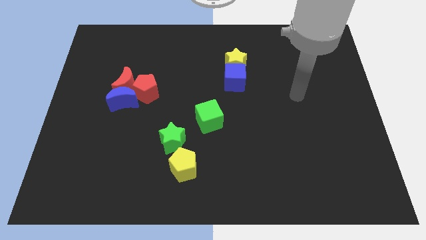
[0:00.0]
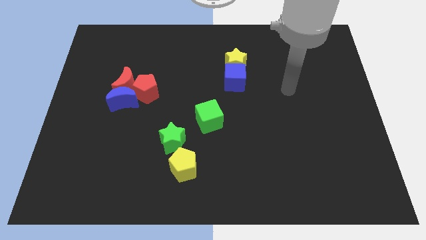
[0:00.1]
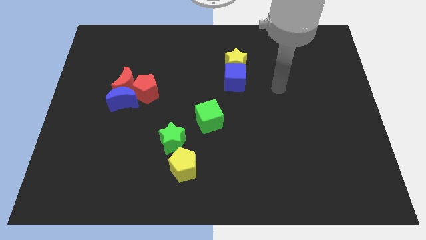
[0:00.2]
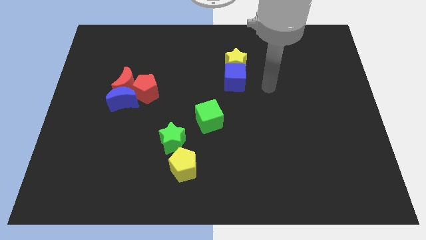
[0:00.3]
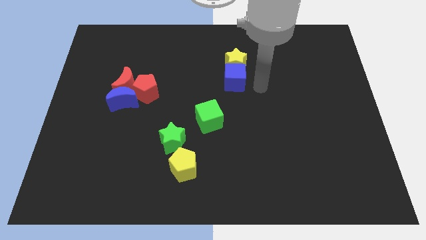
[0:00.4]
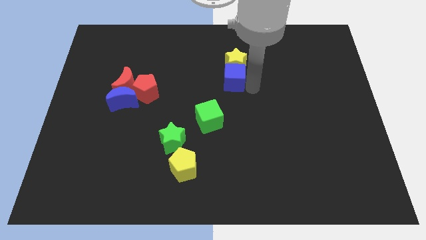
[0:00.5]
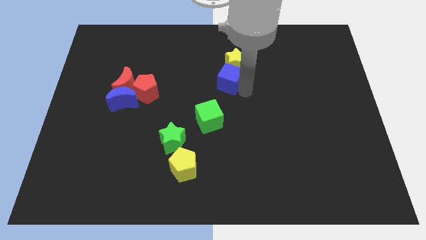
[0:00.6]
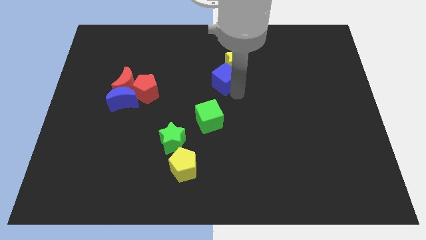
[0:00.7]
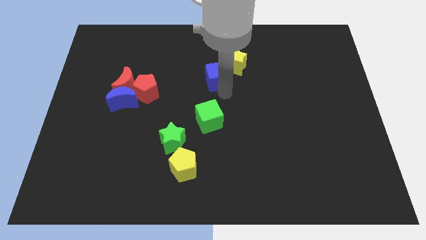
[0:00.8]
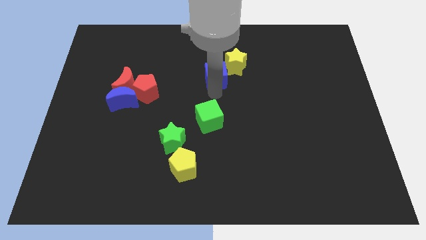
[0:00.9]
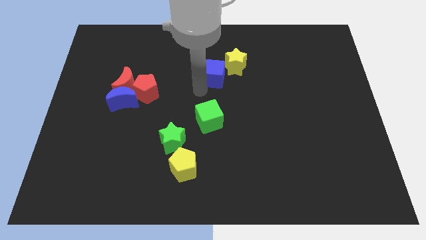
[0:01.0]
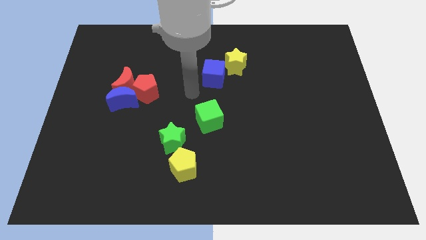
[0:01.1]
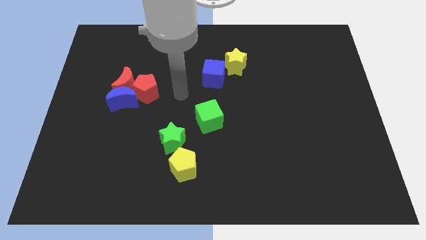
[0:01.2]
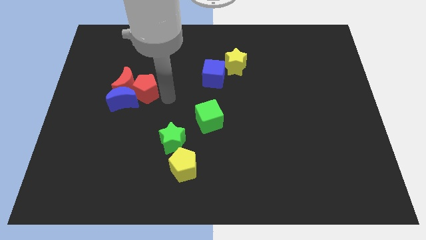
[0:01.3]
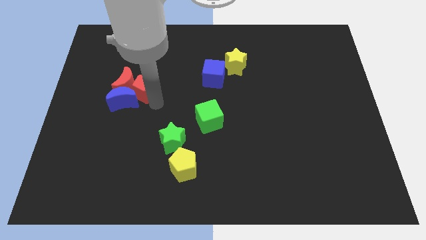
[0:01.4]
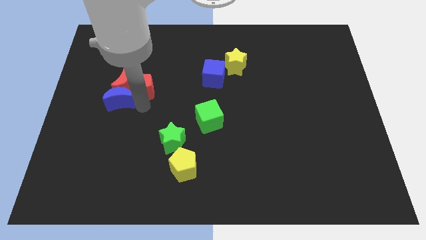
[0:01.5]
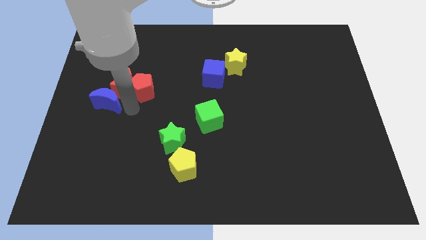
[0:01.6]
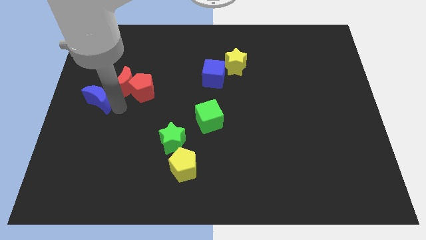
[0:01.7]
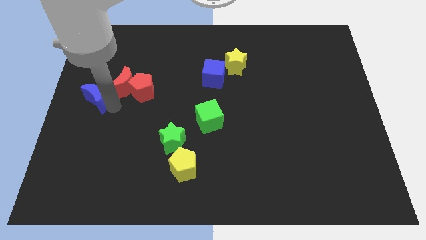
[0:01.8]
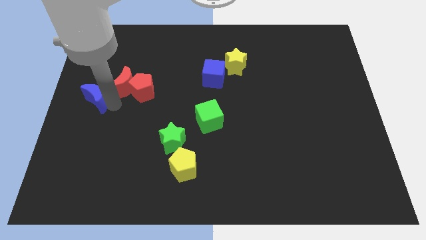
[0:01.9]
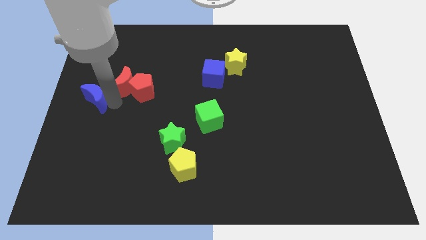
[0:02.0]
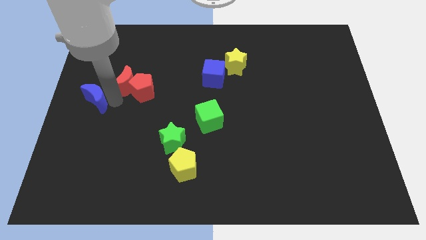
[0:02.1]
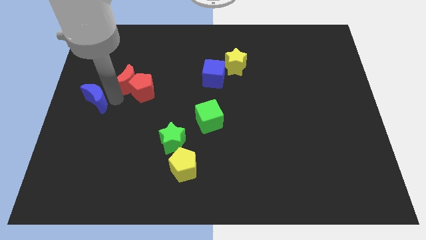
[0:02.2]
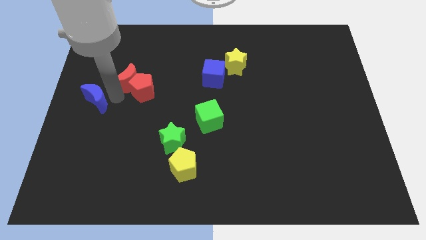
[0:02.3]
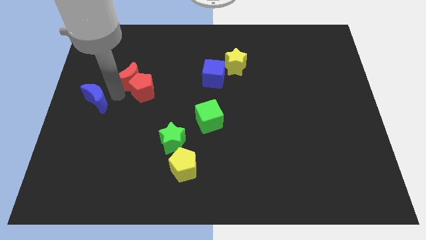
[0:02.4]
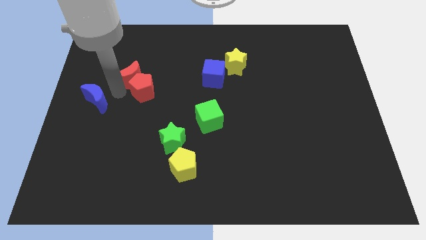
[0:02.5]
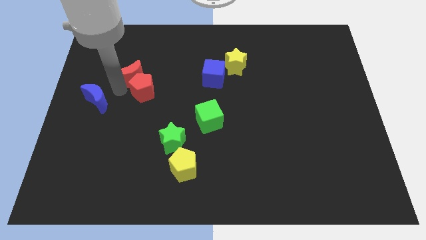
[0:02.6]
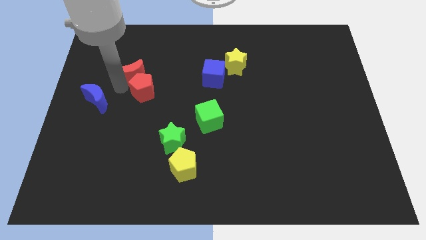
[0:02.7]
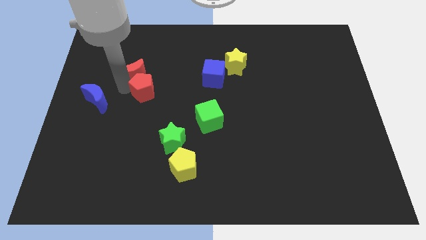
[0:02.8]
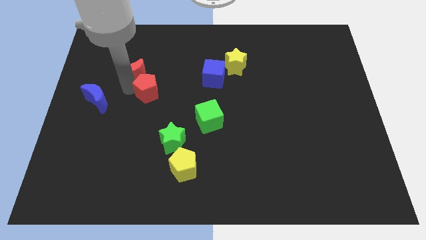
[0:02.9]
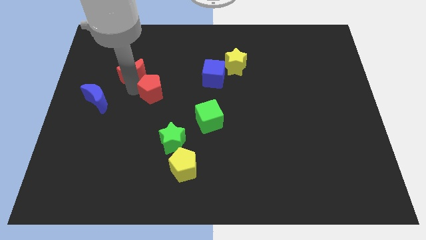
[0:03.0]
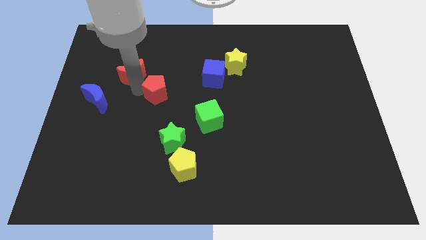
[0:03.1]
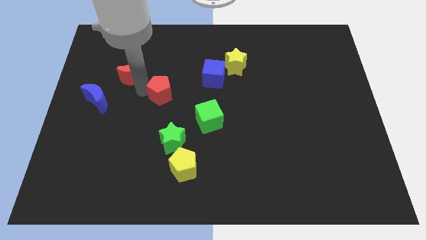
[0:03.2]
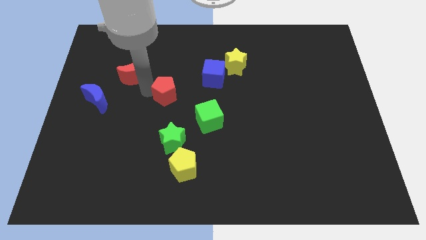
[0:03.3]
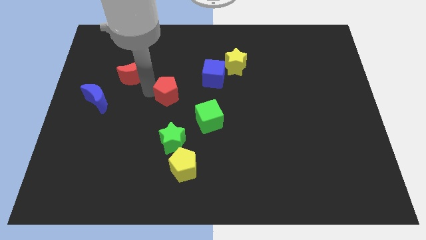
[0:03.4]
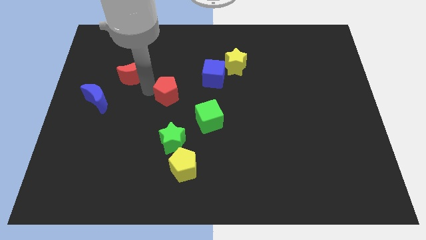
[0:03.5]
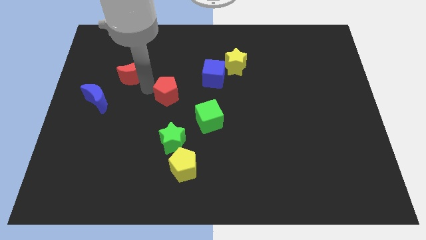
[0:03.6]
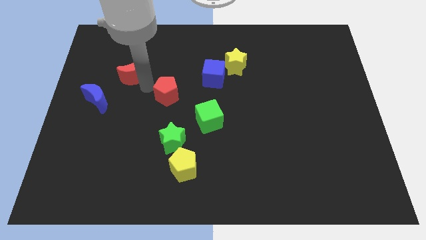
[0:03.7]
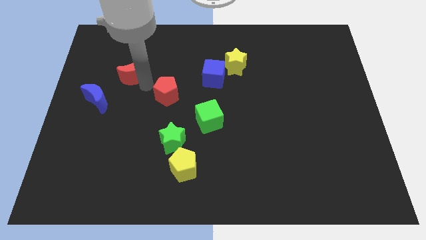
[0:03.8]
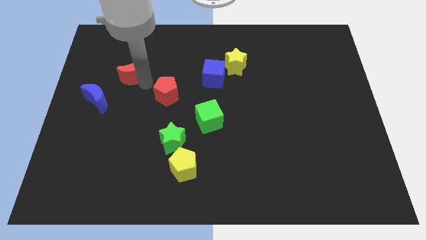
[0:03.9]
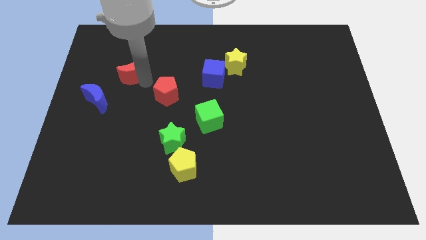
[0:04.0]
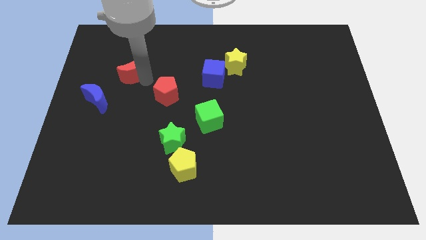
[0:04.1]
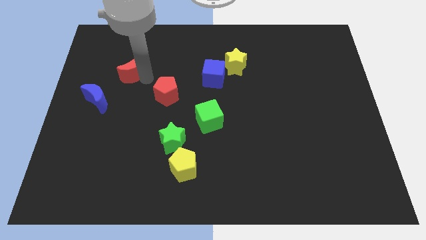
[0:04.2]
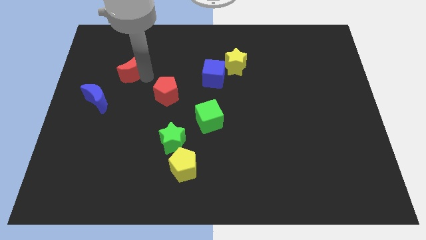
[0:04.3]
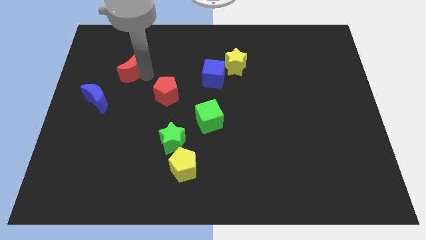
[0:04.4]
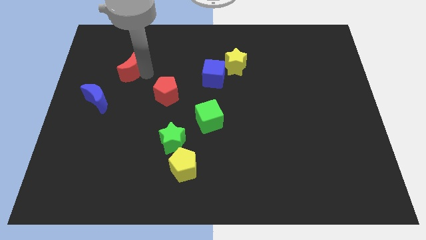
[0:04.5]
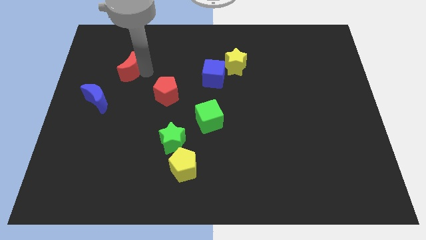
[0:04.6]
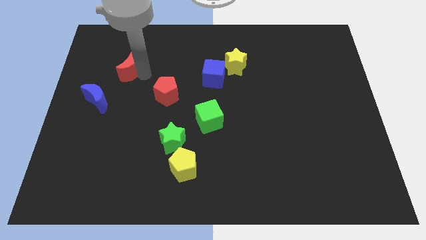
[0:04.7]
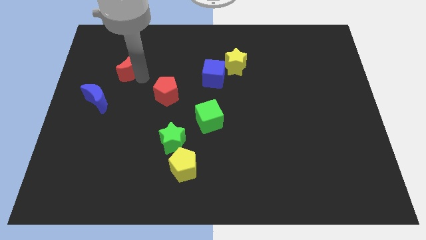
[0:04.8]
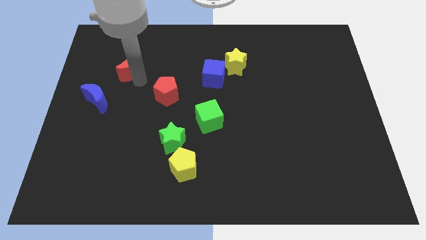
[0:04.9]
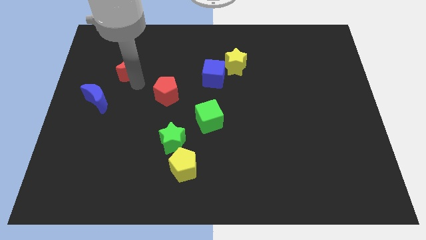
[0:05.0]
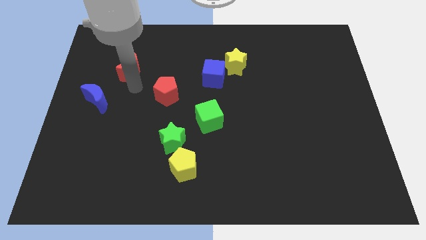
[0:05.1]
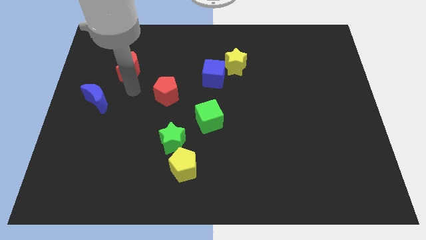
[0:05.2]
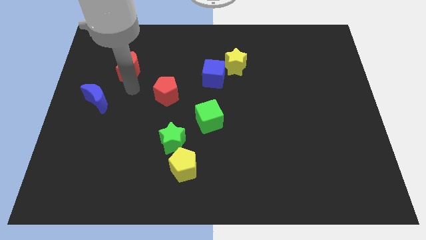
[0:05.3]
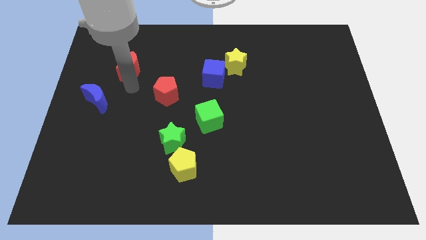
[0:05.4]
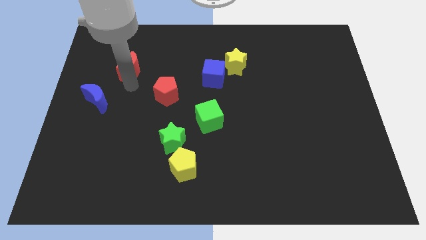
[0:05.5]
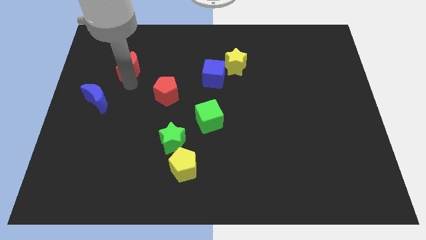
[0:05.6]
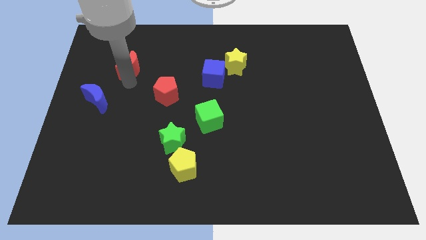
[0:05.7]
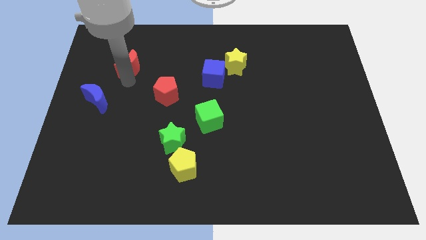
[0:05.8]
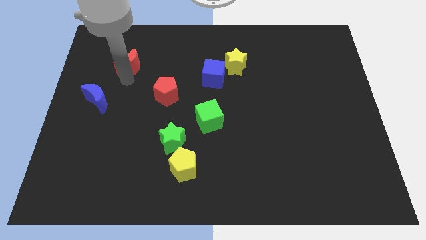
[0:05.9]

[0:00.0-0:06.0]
move the red moon away from the blue moon and red pentagon

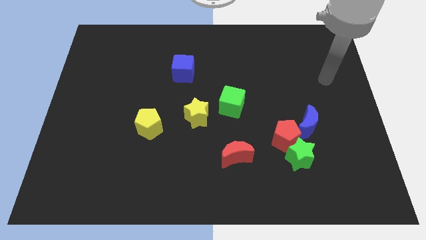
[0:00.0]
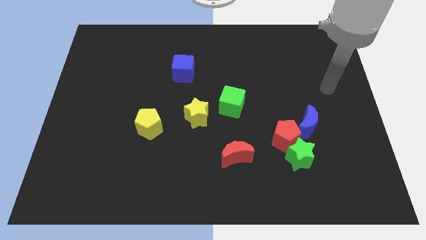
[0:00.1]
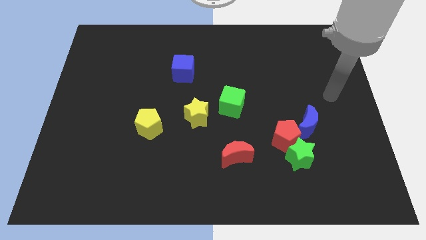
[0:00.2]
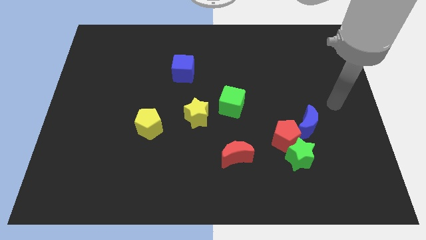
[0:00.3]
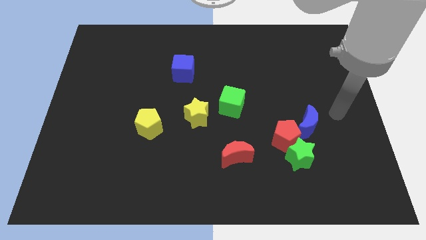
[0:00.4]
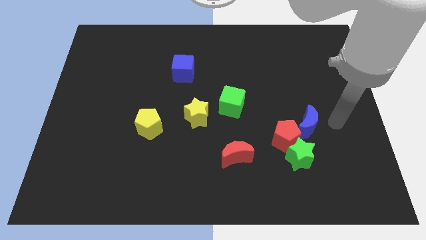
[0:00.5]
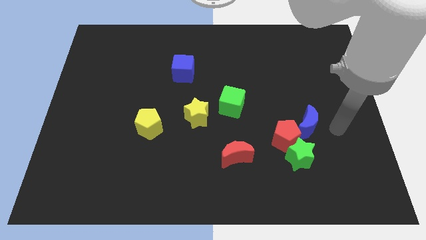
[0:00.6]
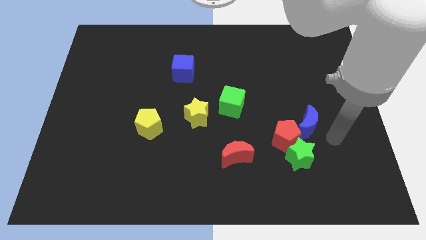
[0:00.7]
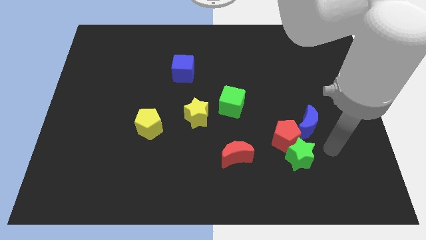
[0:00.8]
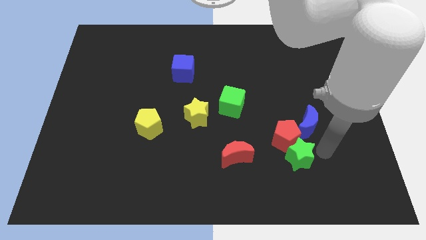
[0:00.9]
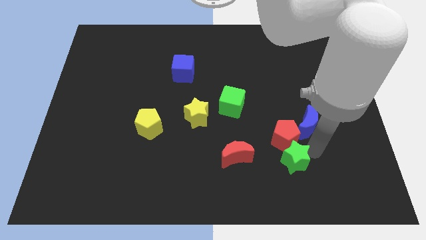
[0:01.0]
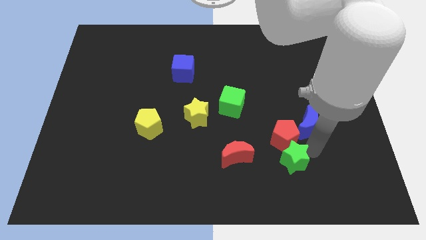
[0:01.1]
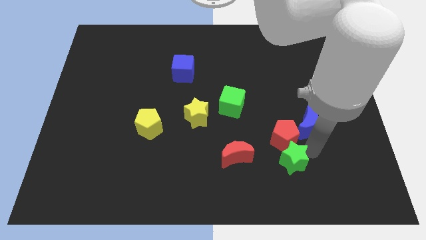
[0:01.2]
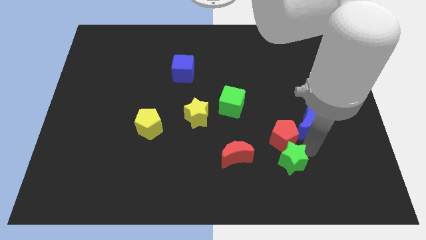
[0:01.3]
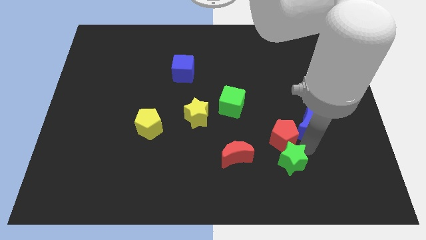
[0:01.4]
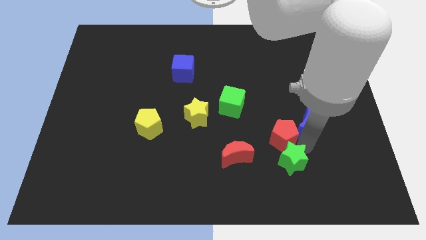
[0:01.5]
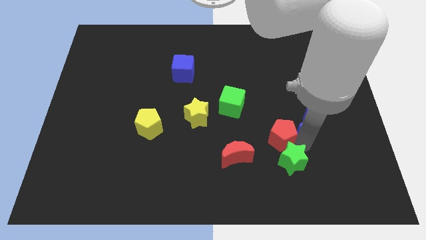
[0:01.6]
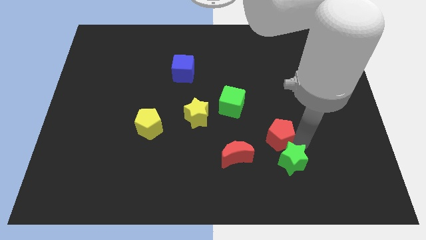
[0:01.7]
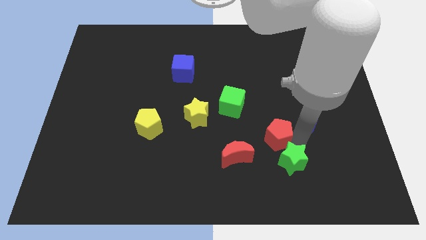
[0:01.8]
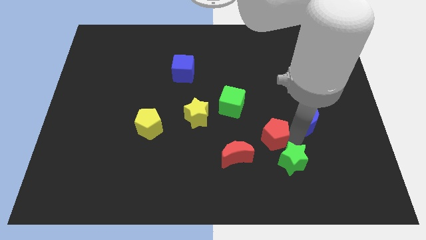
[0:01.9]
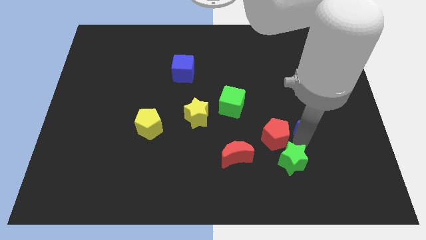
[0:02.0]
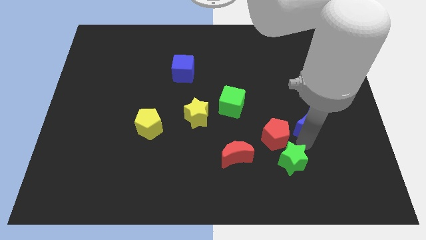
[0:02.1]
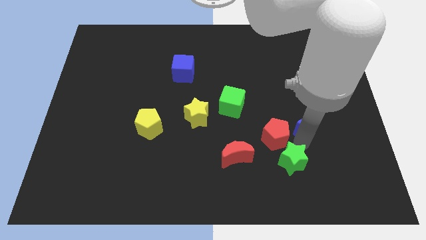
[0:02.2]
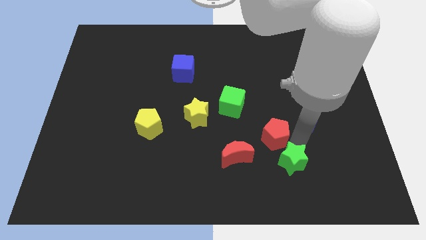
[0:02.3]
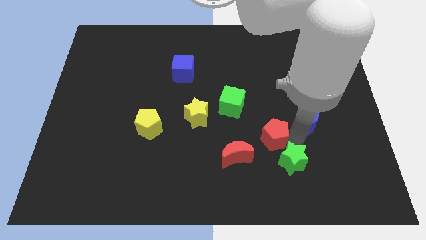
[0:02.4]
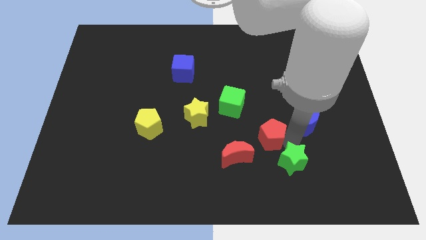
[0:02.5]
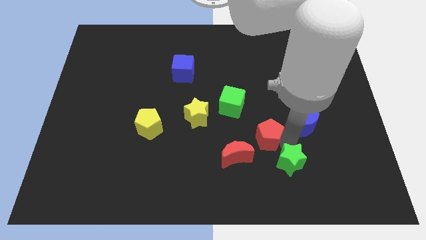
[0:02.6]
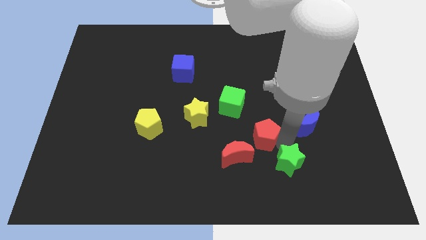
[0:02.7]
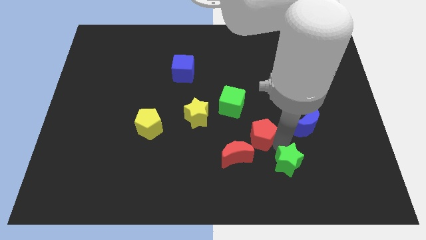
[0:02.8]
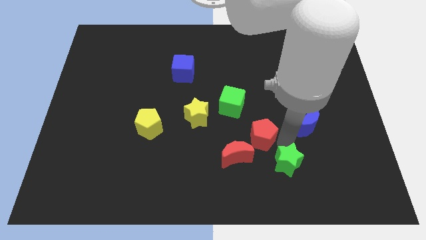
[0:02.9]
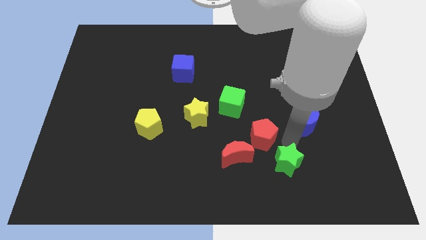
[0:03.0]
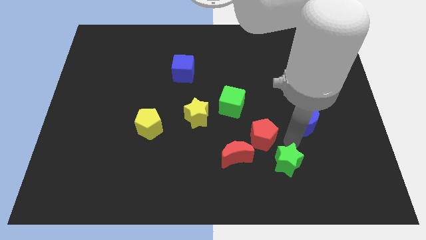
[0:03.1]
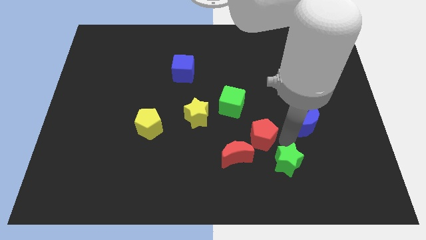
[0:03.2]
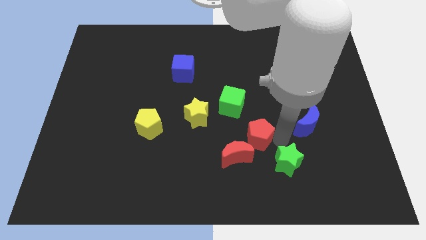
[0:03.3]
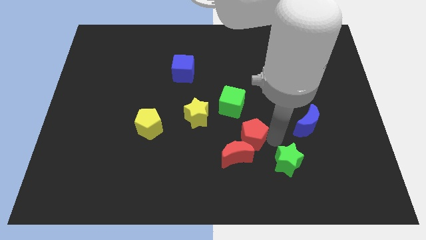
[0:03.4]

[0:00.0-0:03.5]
separate the red pentagon from the green star and blue moon
